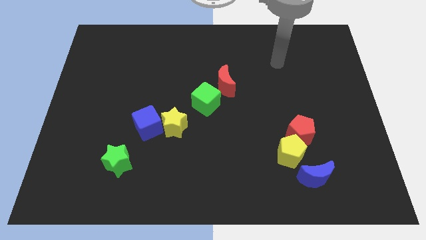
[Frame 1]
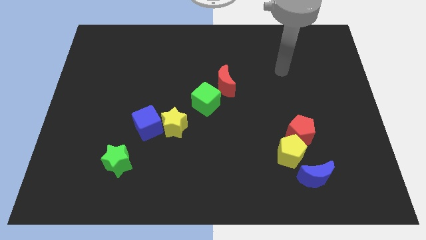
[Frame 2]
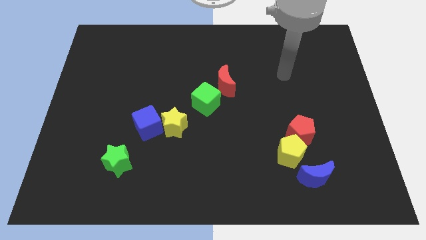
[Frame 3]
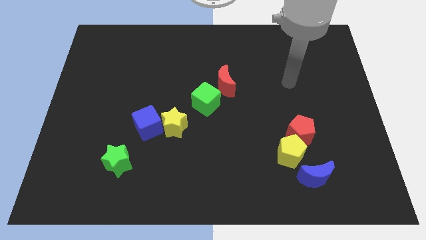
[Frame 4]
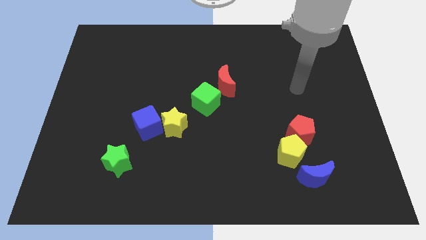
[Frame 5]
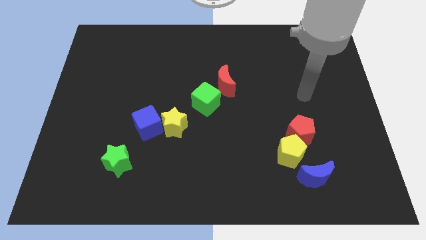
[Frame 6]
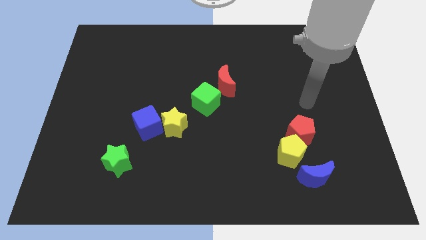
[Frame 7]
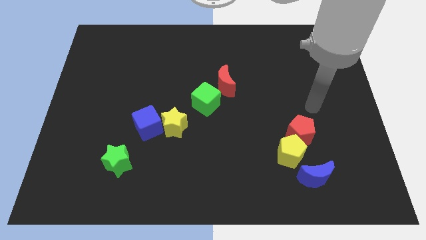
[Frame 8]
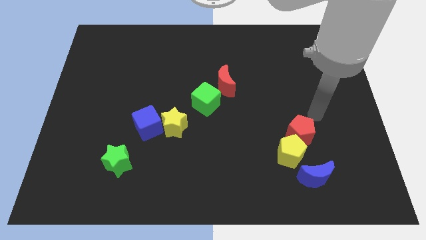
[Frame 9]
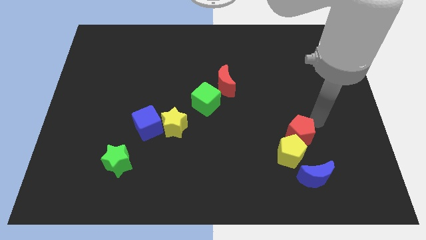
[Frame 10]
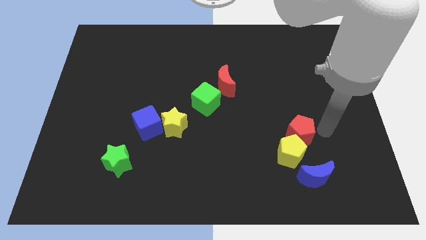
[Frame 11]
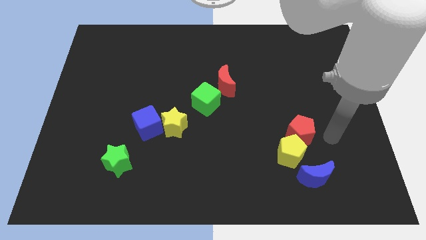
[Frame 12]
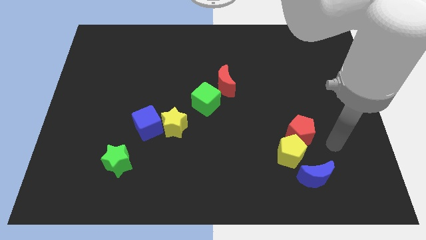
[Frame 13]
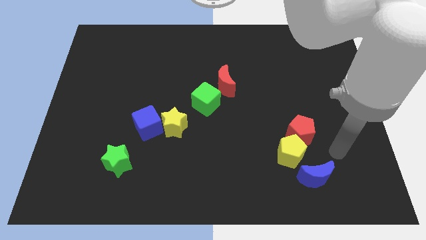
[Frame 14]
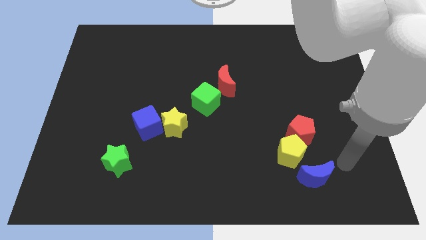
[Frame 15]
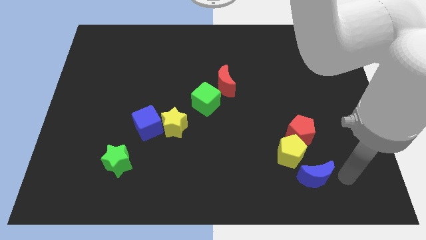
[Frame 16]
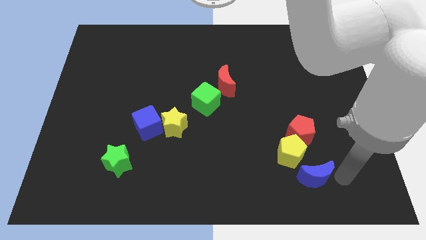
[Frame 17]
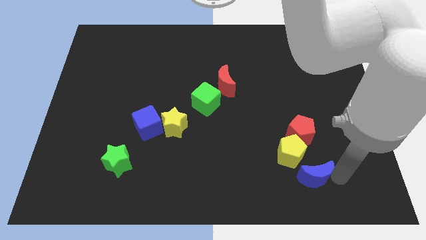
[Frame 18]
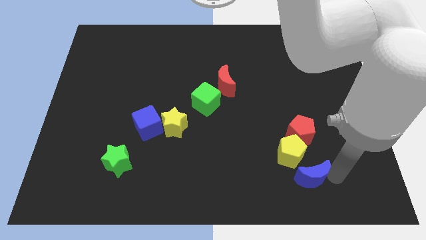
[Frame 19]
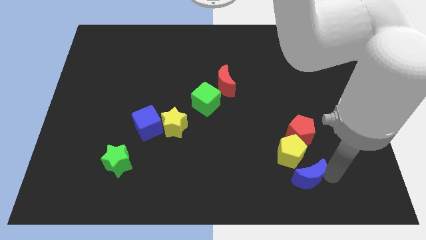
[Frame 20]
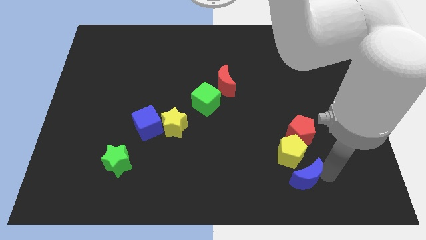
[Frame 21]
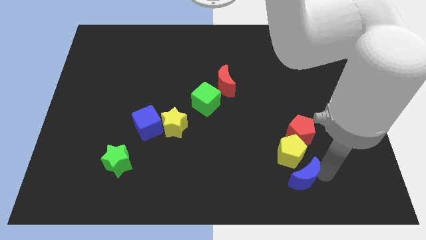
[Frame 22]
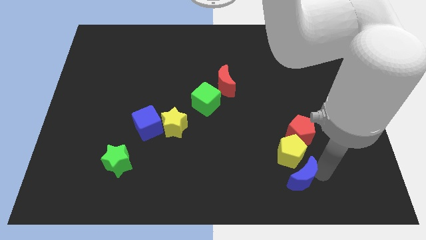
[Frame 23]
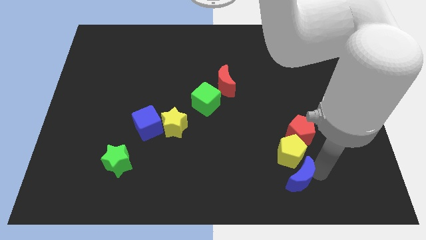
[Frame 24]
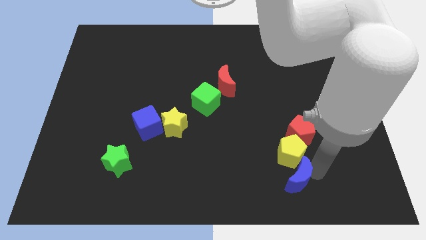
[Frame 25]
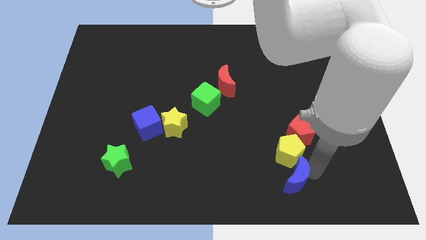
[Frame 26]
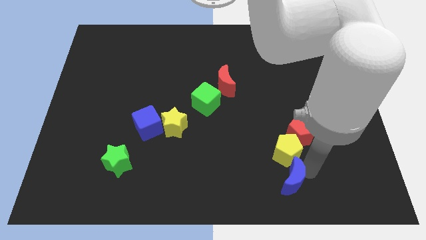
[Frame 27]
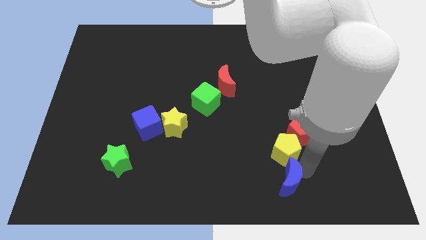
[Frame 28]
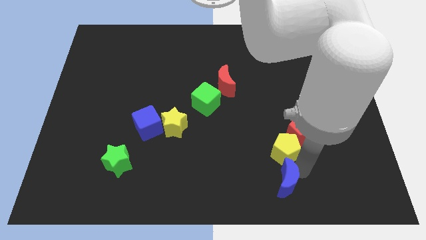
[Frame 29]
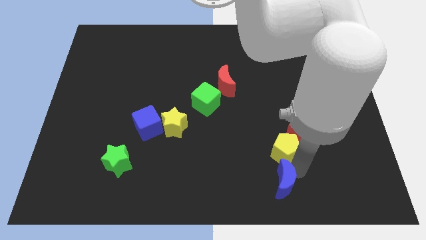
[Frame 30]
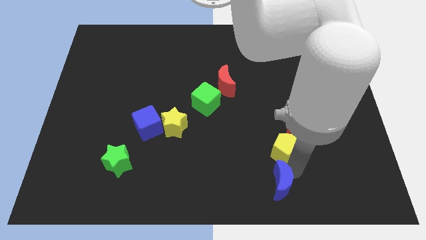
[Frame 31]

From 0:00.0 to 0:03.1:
slightly push the blue moon left

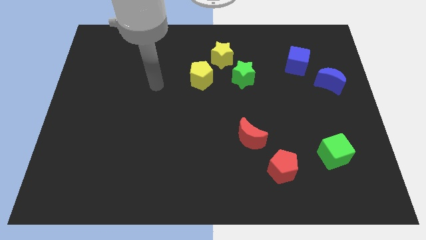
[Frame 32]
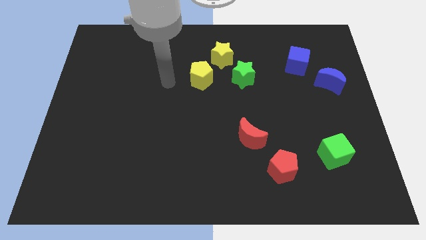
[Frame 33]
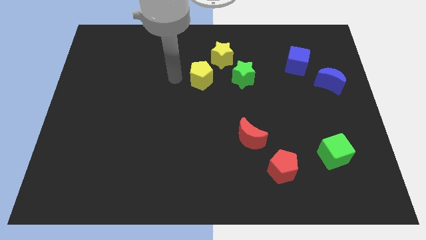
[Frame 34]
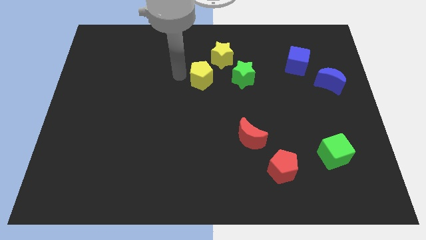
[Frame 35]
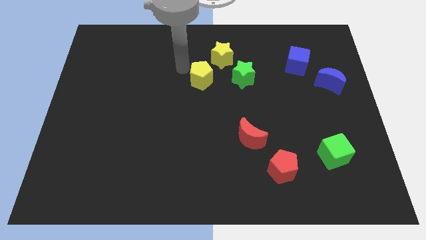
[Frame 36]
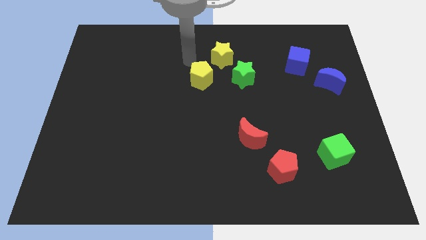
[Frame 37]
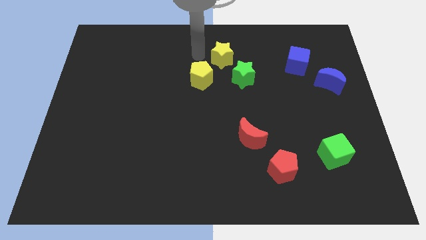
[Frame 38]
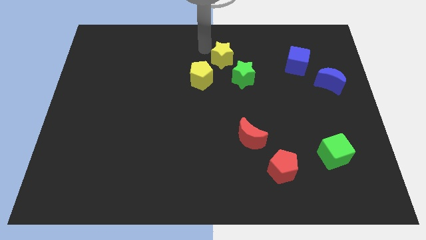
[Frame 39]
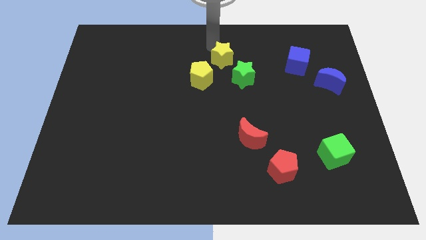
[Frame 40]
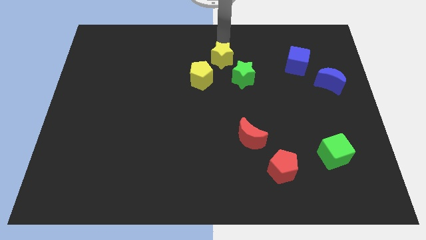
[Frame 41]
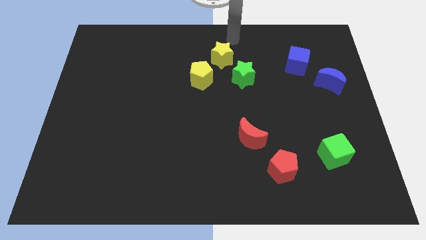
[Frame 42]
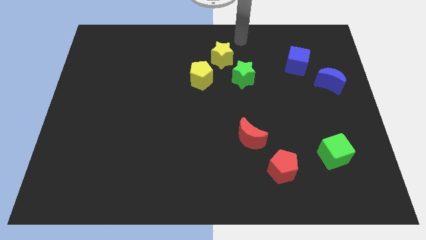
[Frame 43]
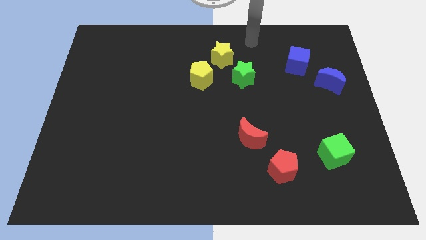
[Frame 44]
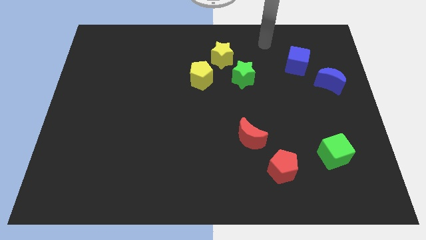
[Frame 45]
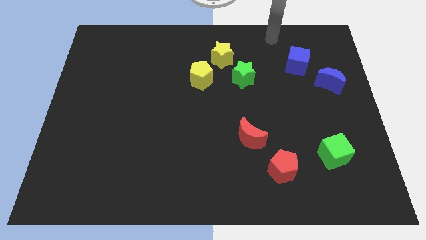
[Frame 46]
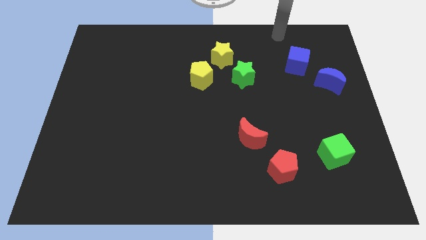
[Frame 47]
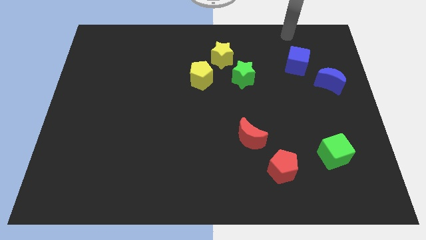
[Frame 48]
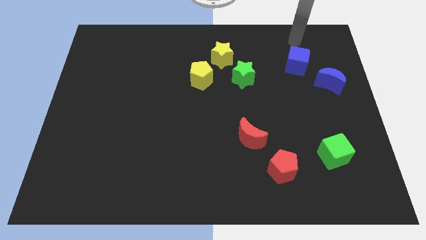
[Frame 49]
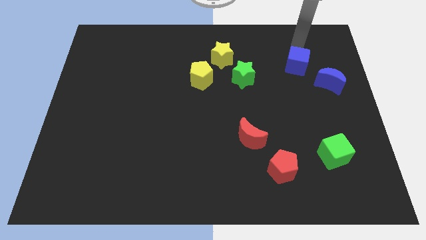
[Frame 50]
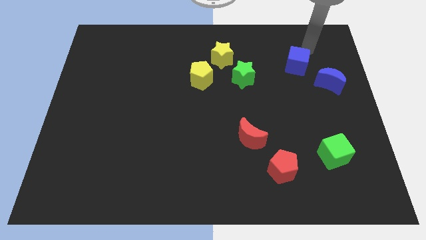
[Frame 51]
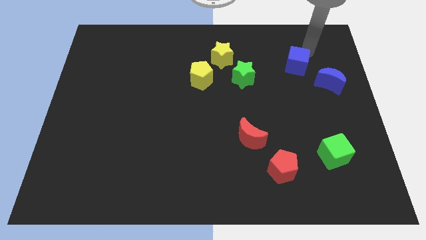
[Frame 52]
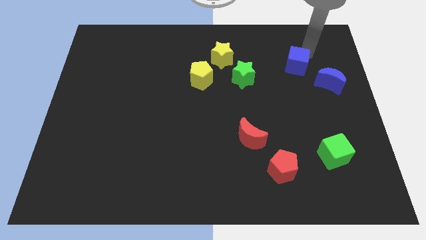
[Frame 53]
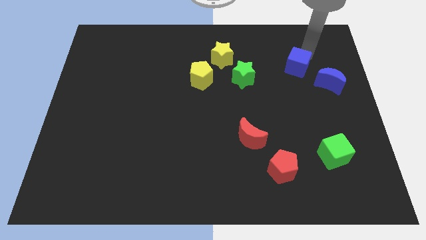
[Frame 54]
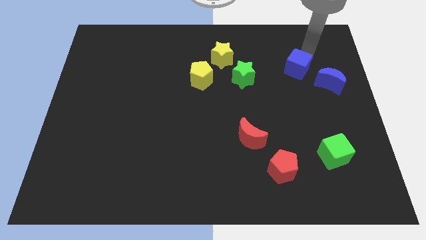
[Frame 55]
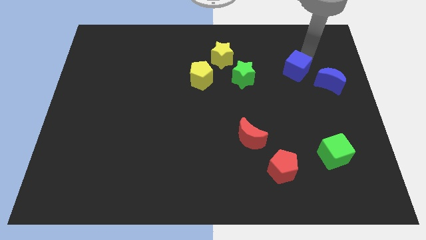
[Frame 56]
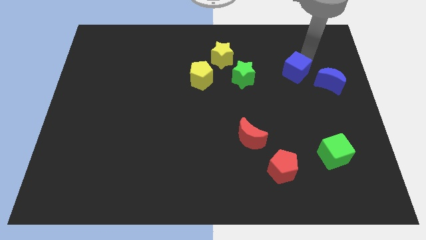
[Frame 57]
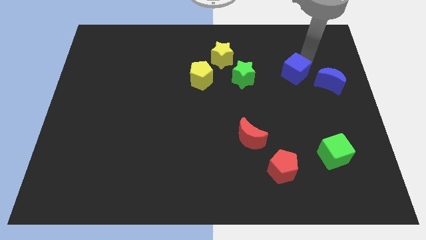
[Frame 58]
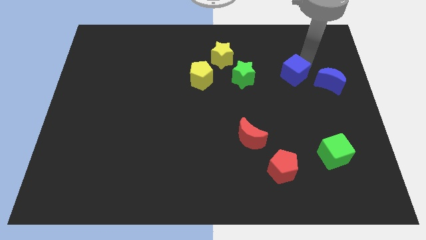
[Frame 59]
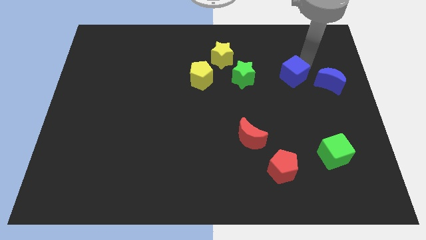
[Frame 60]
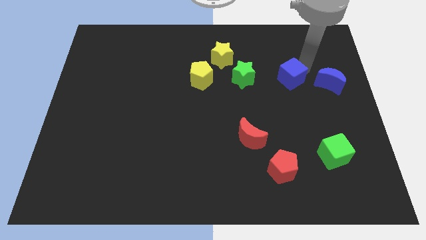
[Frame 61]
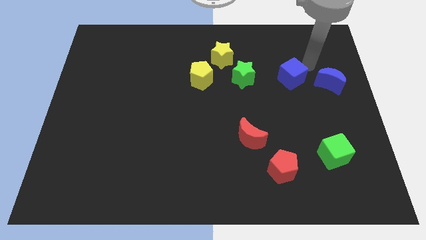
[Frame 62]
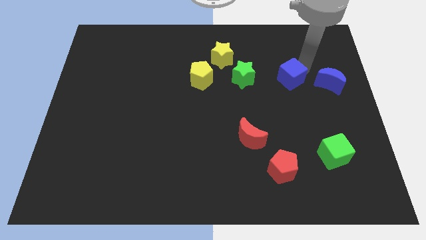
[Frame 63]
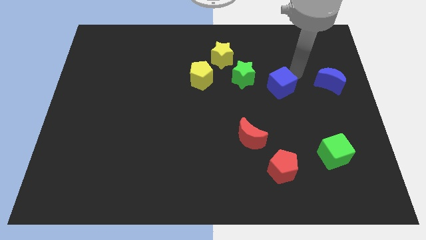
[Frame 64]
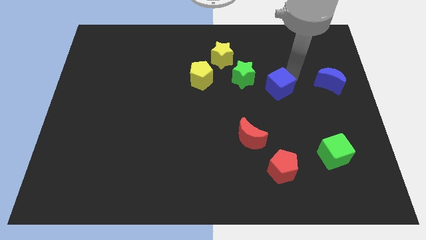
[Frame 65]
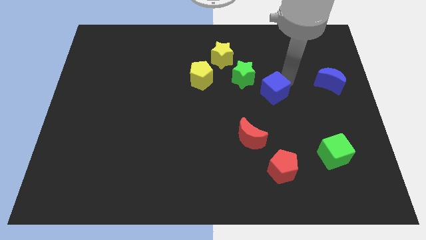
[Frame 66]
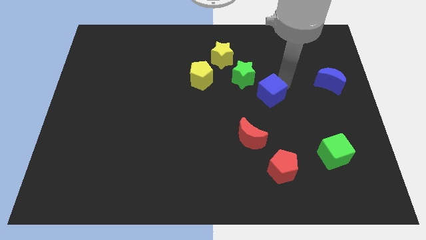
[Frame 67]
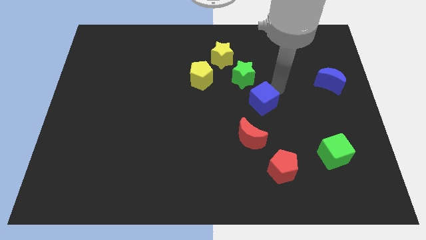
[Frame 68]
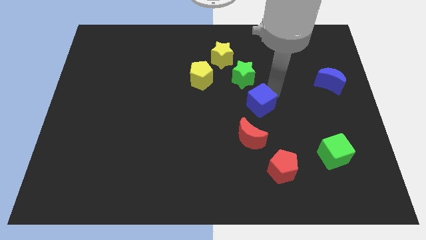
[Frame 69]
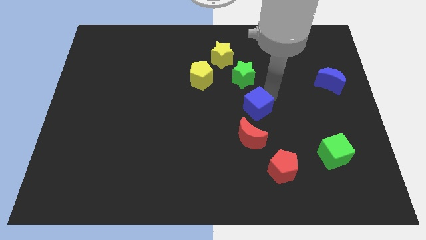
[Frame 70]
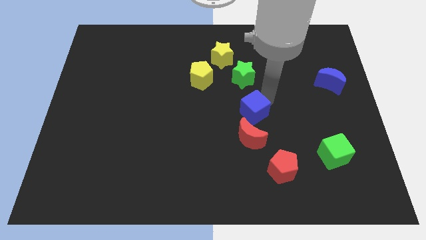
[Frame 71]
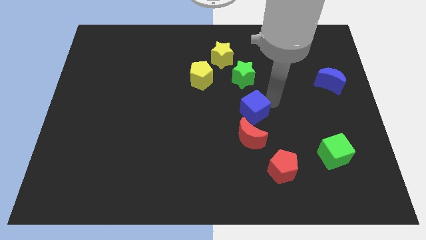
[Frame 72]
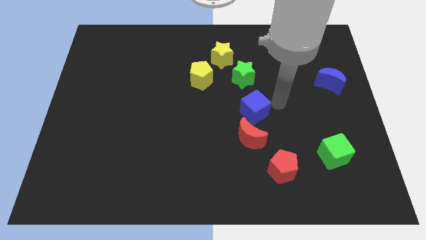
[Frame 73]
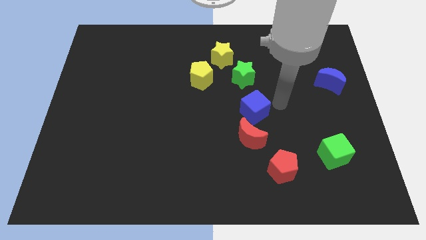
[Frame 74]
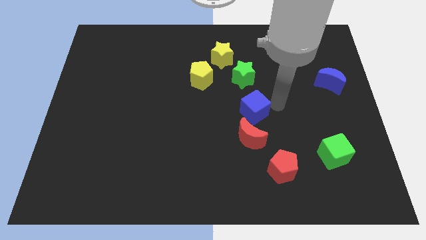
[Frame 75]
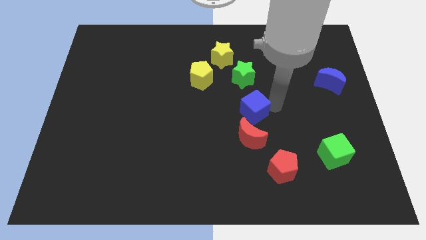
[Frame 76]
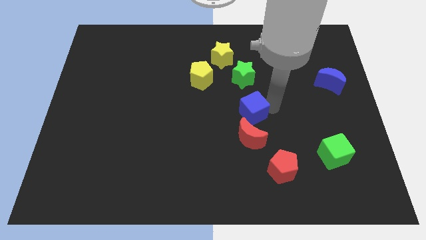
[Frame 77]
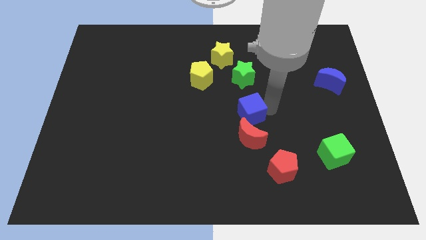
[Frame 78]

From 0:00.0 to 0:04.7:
push the blue cube diagonally down and left
